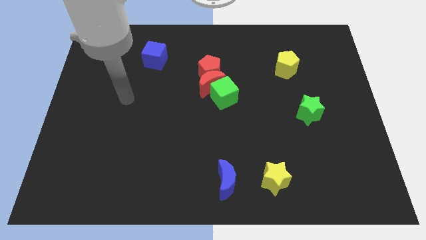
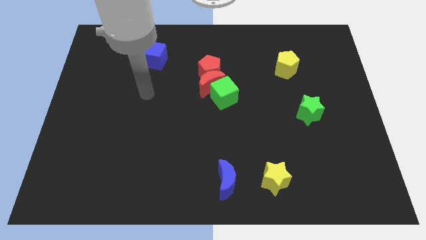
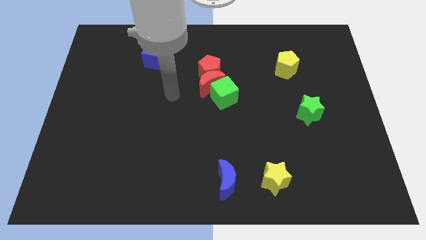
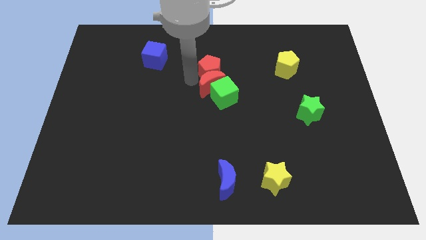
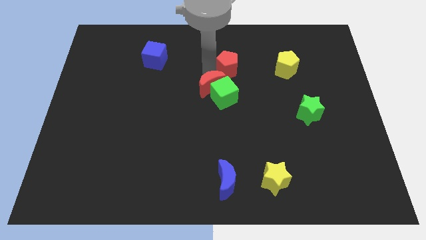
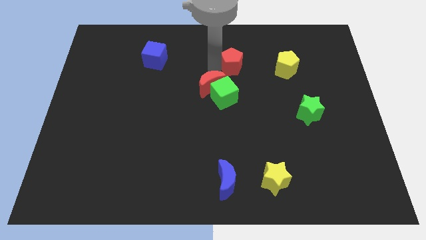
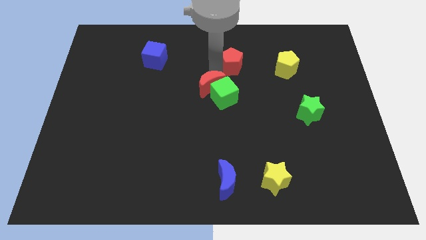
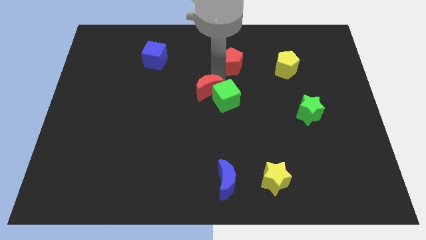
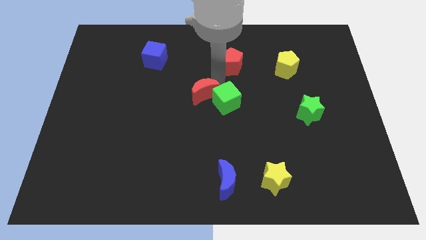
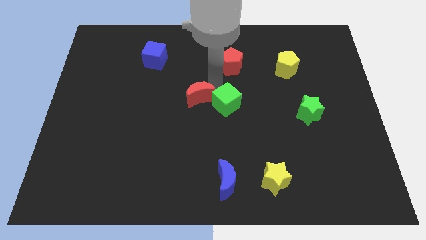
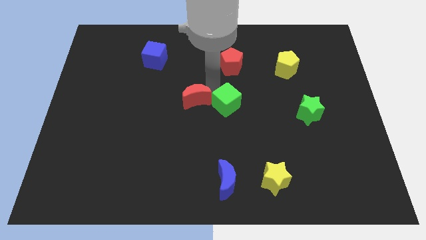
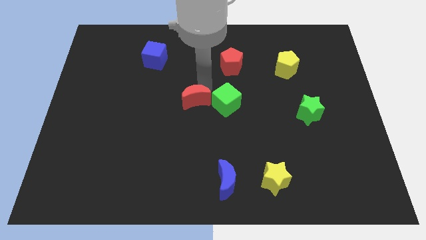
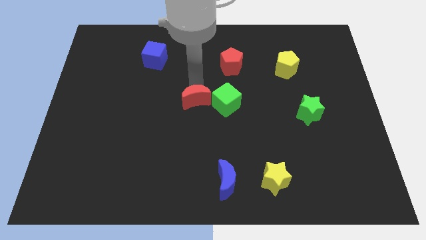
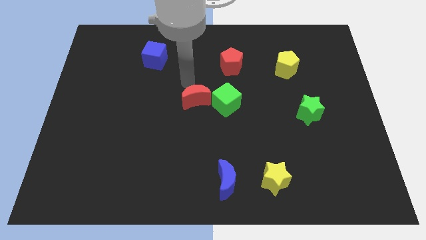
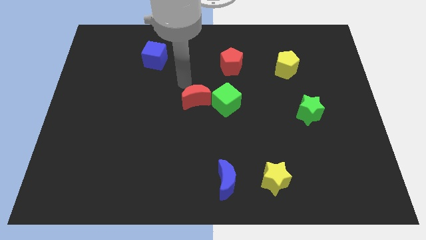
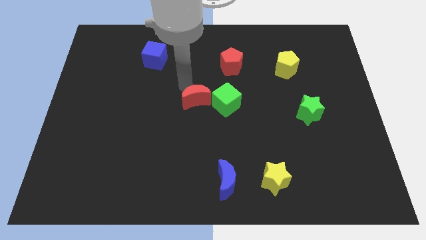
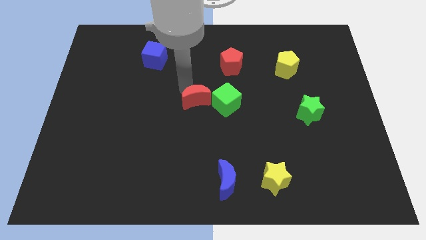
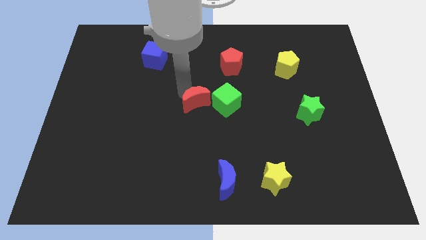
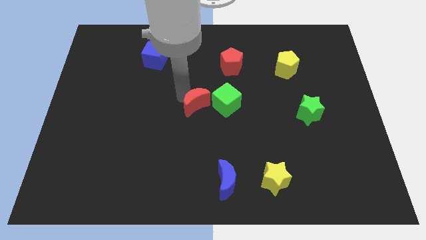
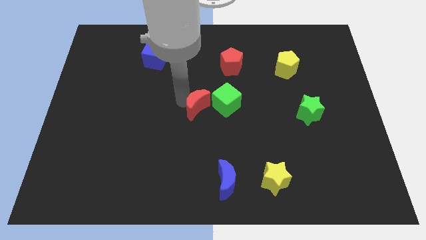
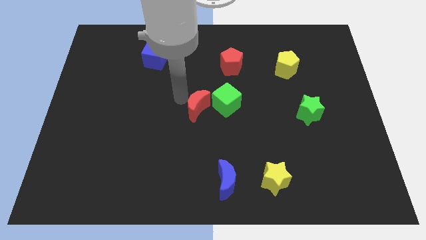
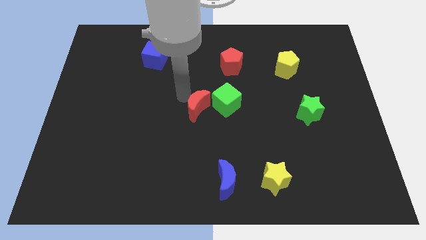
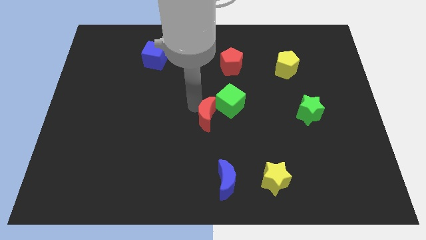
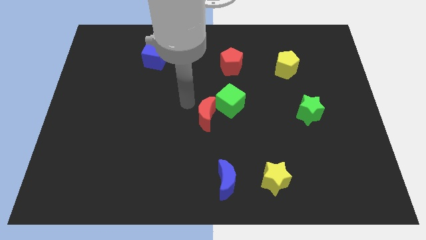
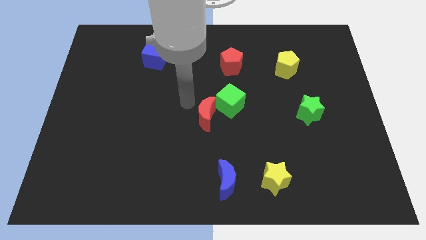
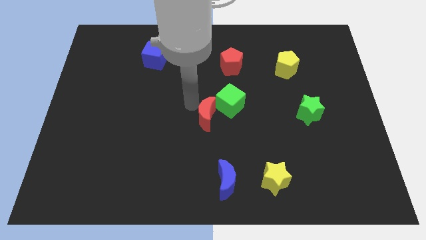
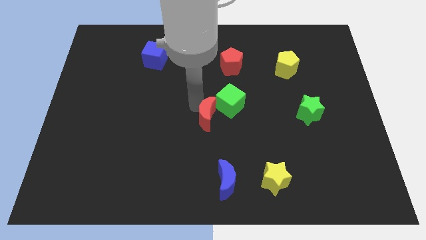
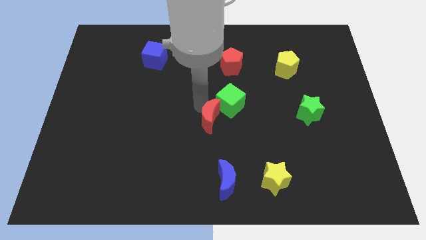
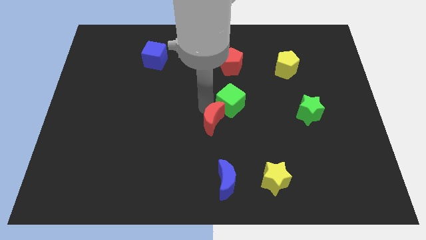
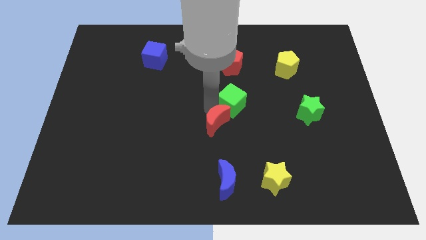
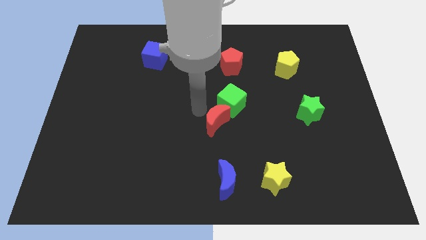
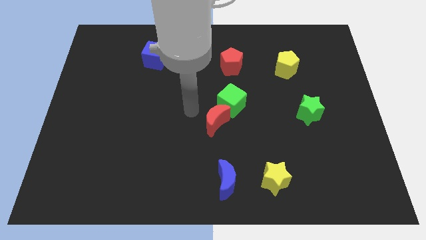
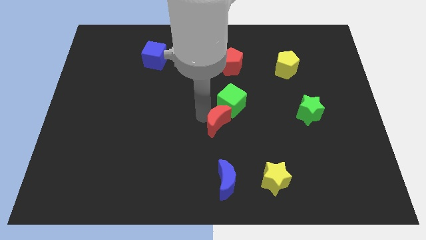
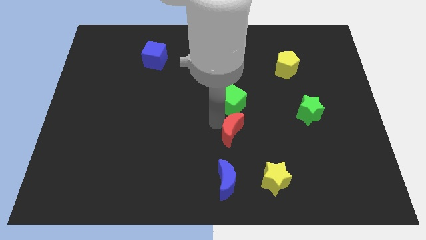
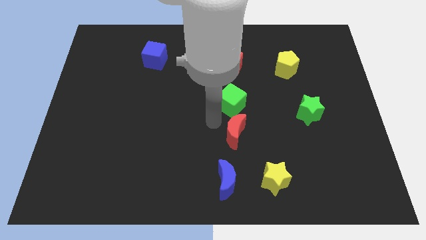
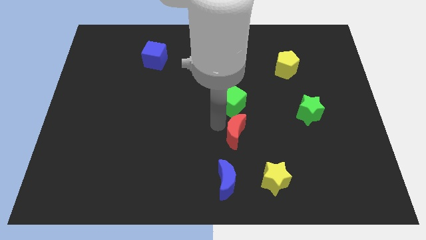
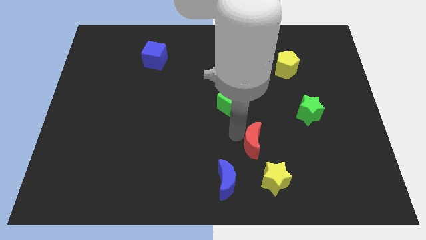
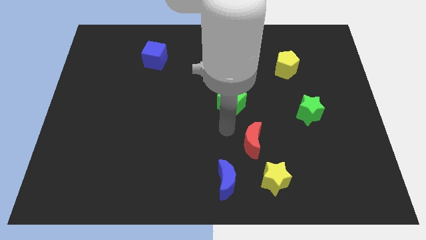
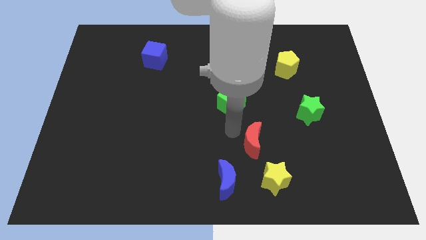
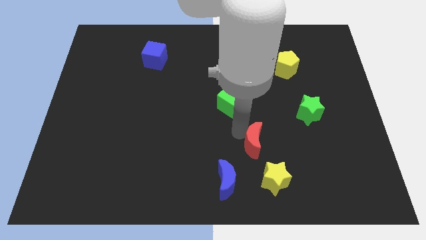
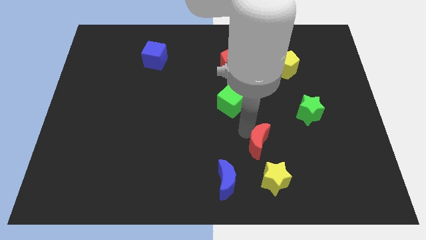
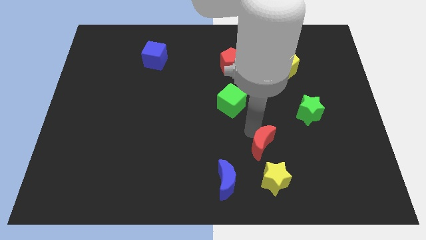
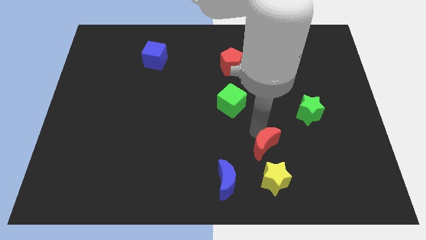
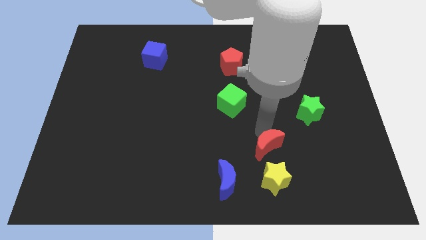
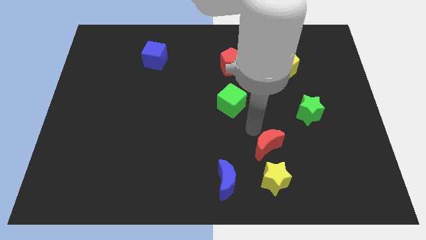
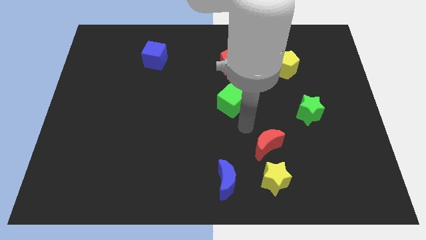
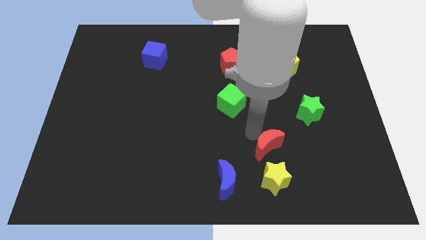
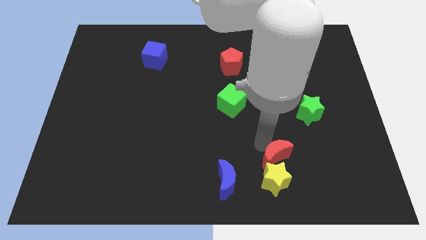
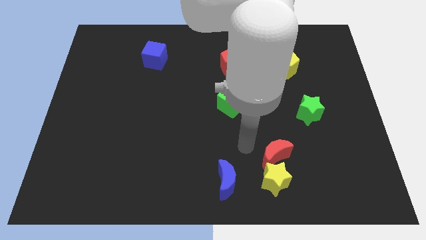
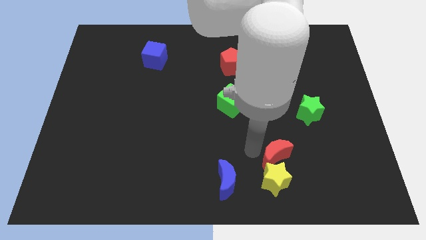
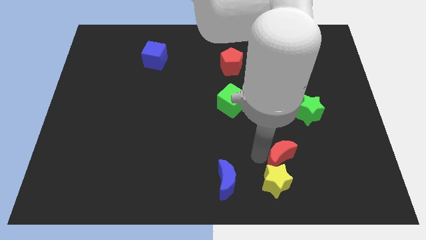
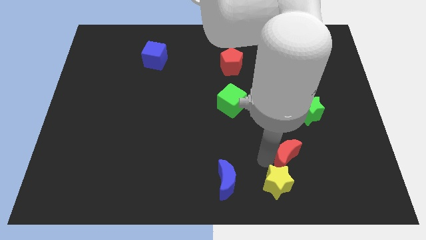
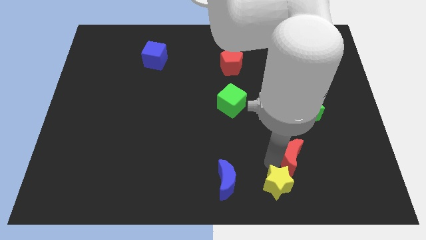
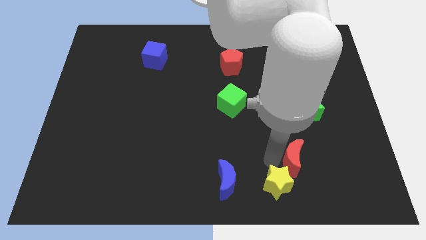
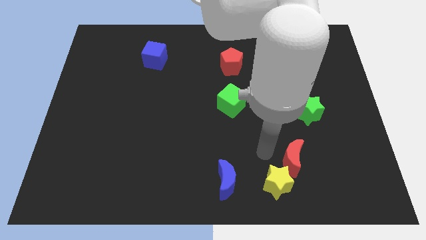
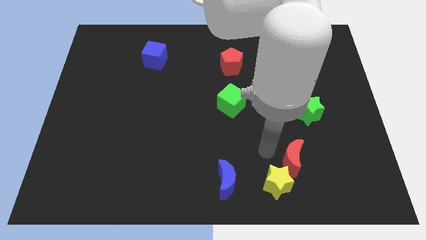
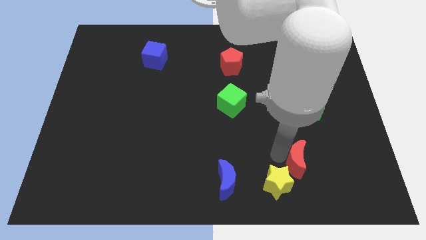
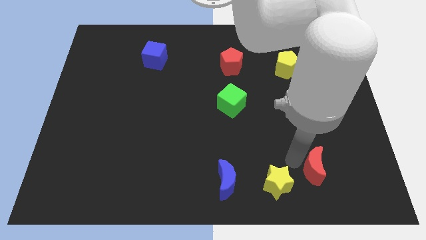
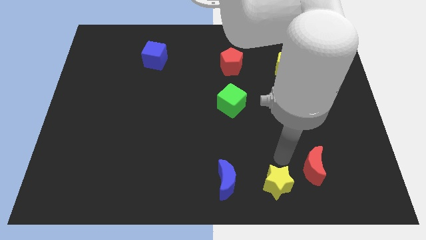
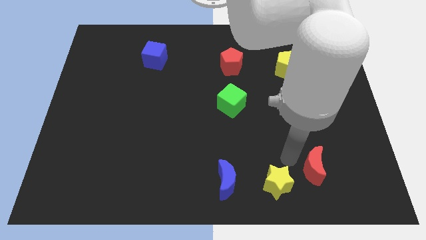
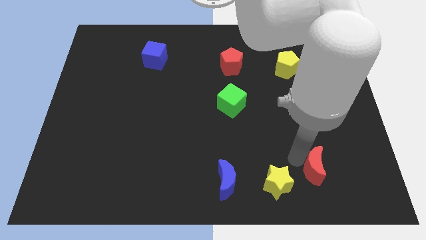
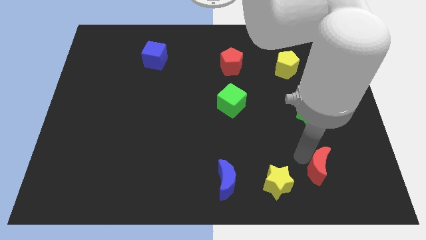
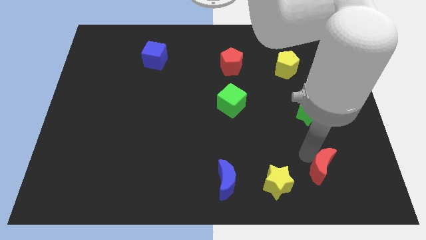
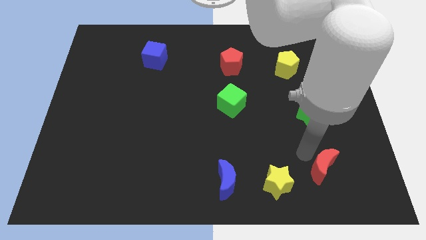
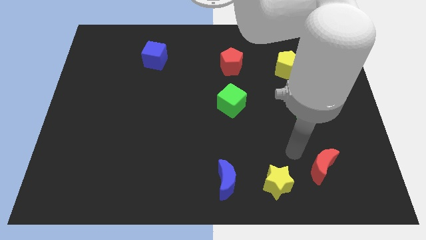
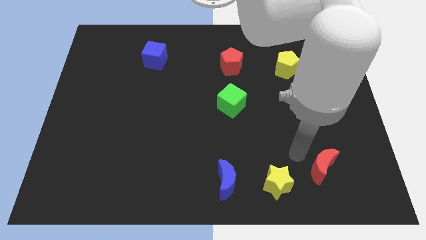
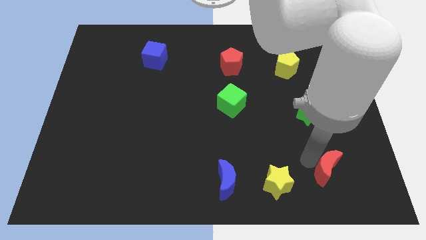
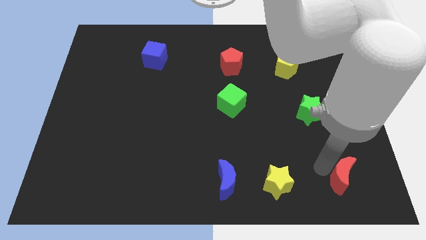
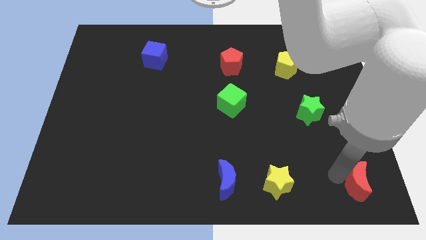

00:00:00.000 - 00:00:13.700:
move the red moon to the bottom right corner
